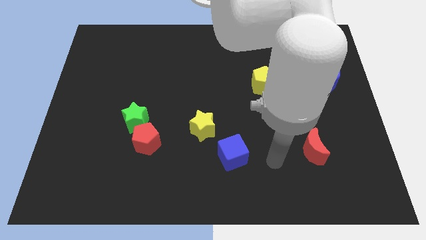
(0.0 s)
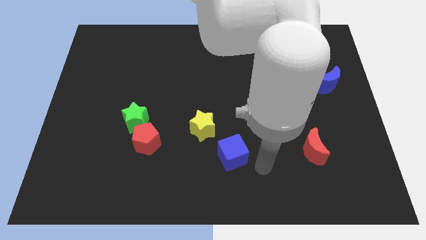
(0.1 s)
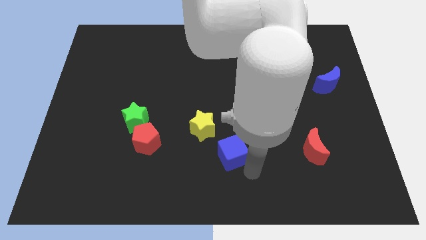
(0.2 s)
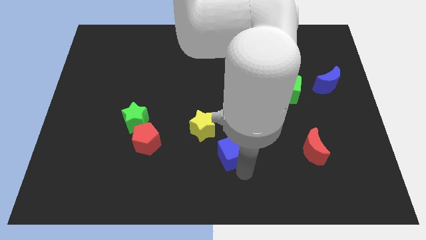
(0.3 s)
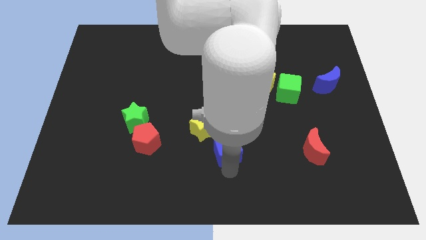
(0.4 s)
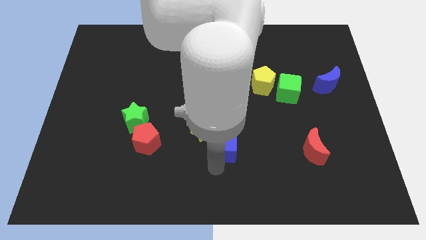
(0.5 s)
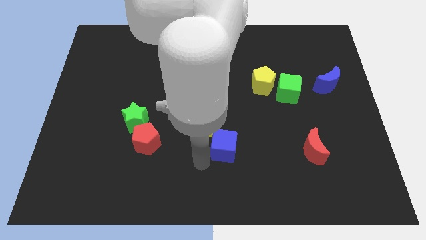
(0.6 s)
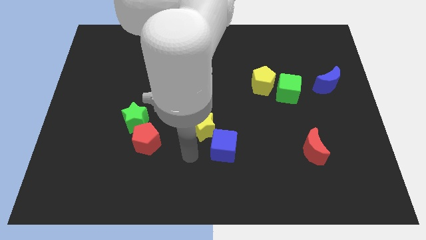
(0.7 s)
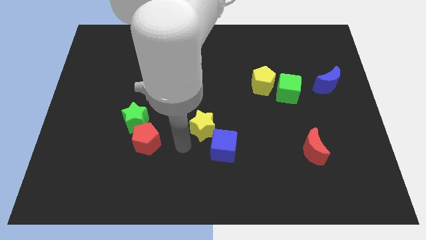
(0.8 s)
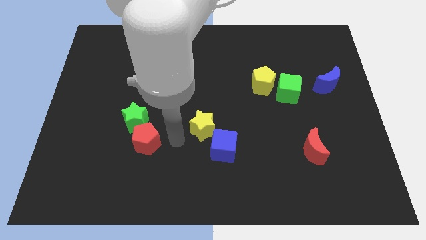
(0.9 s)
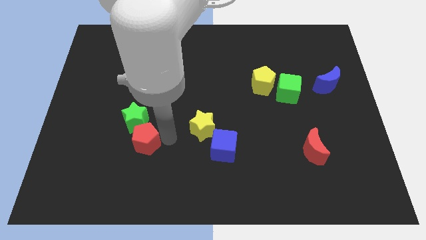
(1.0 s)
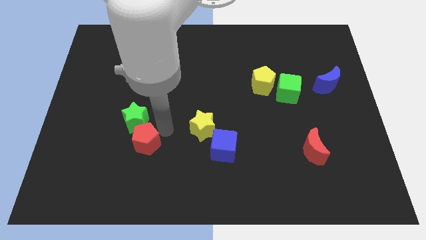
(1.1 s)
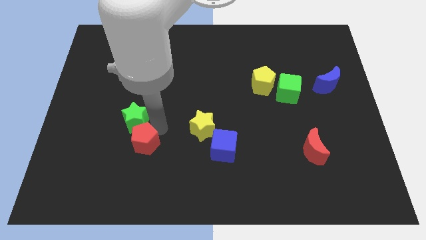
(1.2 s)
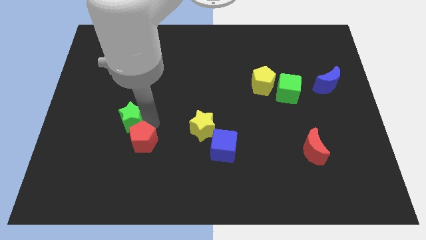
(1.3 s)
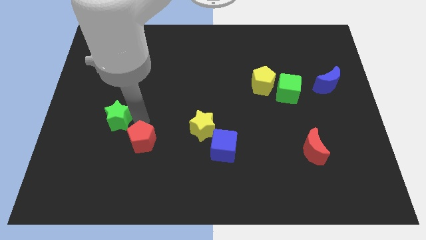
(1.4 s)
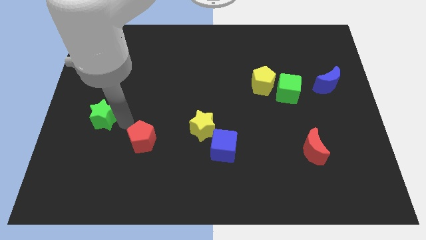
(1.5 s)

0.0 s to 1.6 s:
move the red pentagon away from the green star

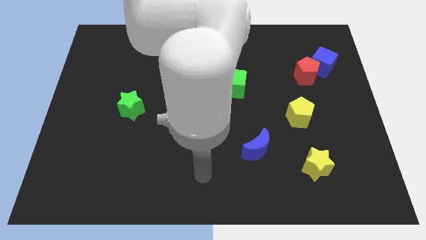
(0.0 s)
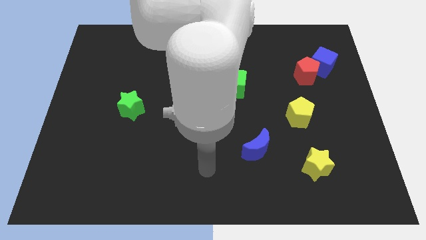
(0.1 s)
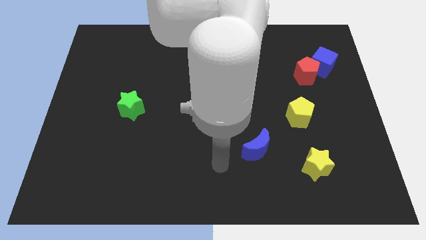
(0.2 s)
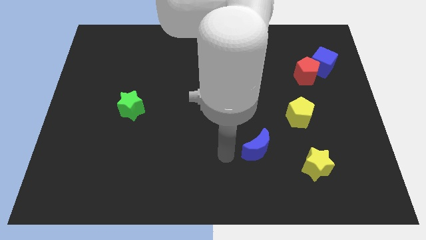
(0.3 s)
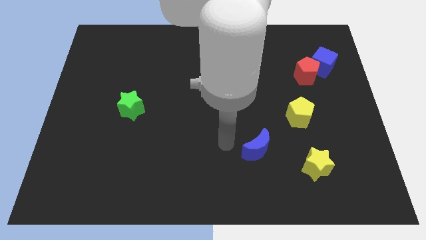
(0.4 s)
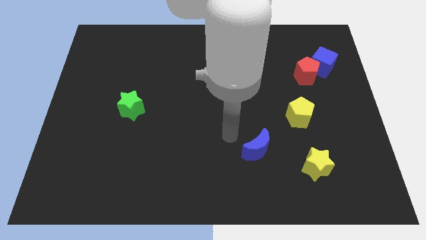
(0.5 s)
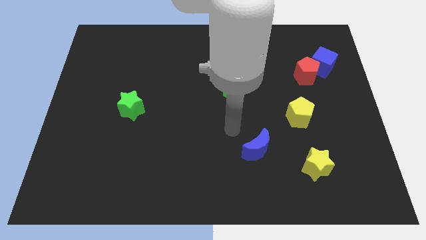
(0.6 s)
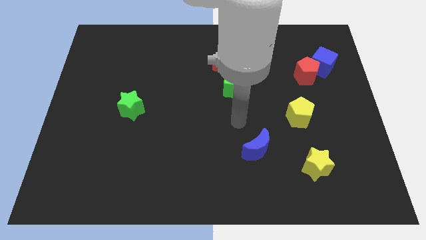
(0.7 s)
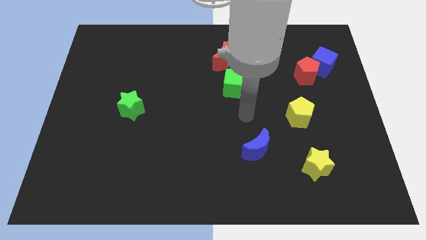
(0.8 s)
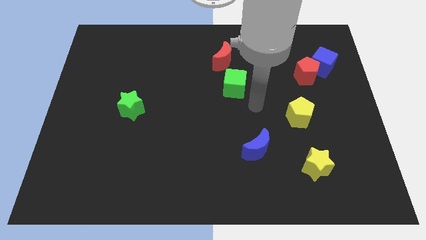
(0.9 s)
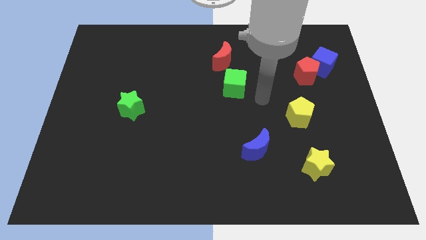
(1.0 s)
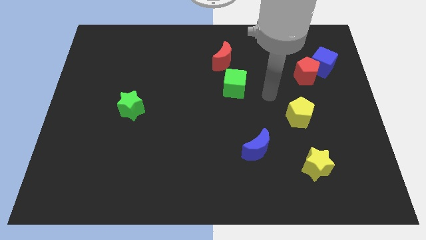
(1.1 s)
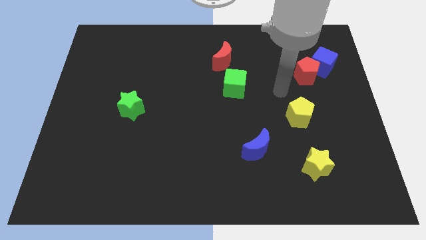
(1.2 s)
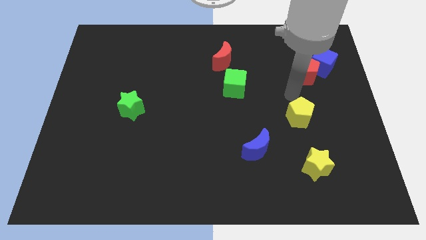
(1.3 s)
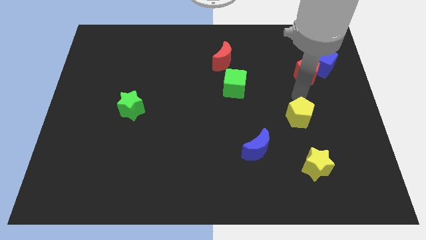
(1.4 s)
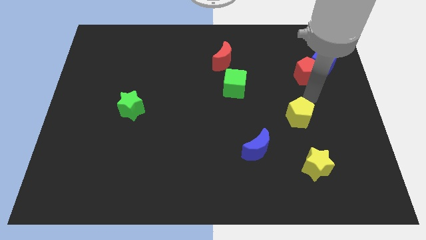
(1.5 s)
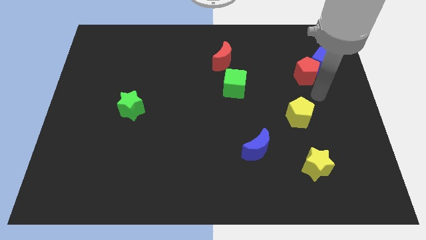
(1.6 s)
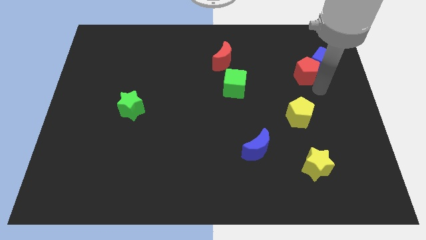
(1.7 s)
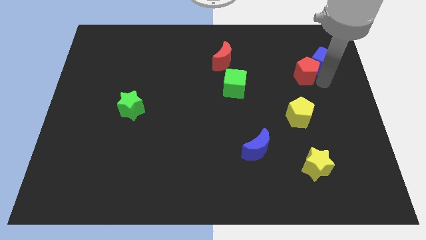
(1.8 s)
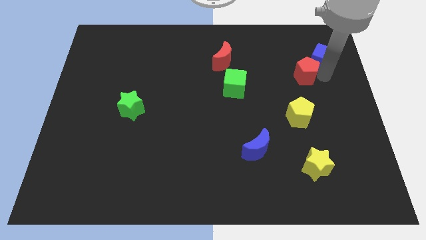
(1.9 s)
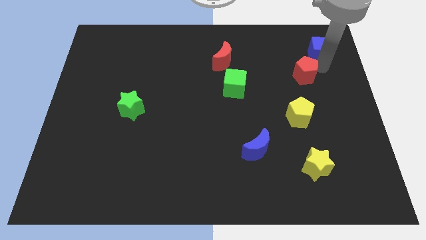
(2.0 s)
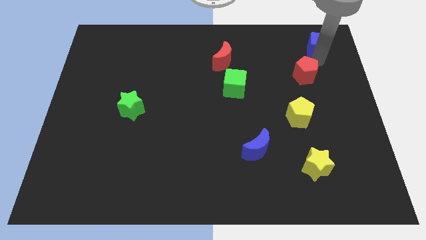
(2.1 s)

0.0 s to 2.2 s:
pull the red pentagon apart from the blue cube

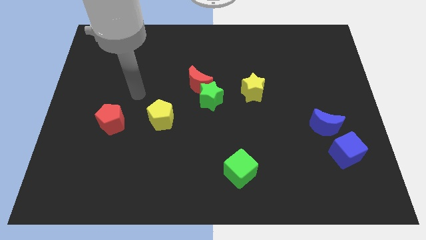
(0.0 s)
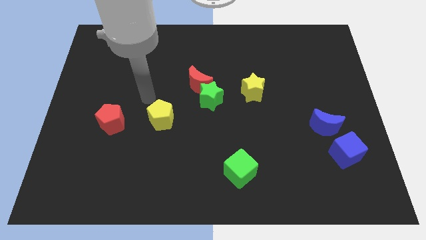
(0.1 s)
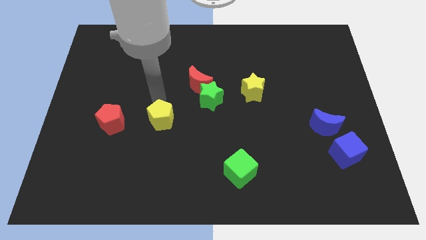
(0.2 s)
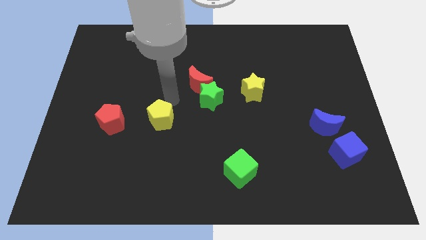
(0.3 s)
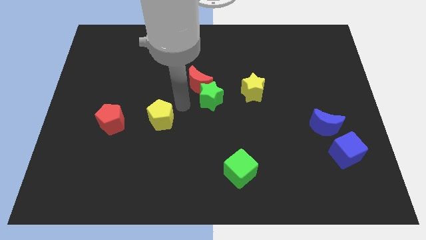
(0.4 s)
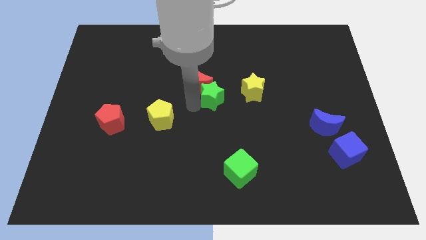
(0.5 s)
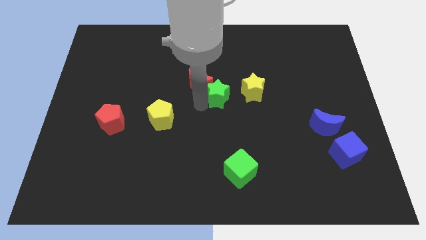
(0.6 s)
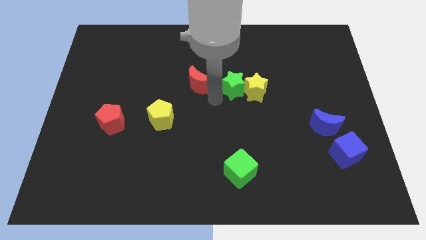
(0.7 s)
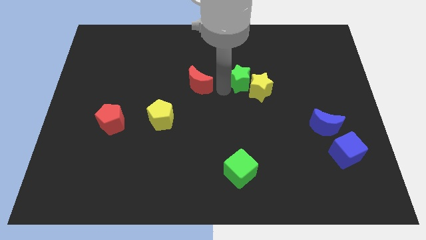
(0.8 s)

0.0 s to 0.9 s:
move the red moon away from the green star

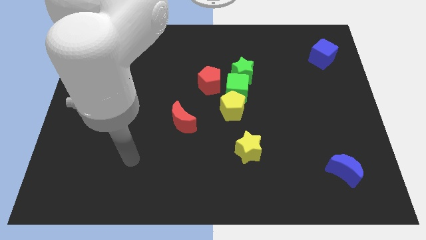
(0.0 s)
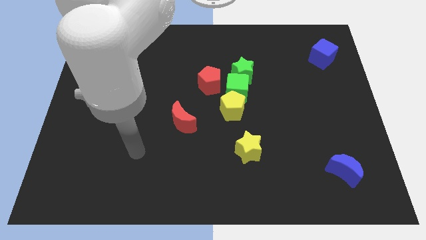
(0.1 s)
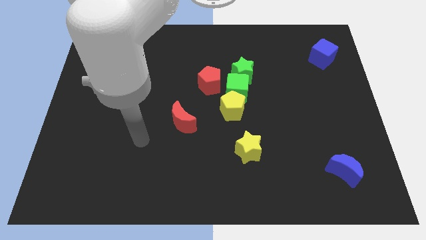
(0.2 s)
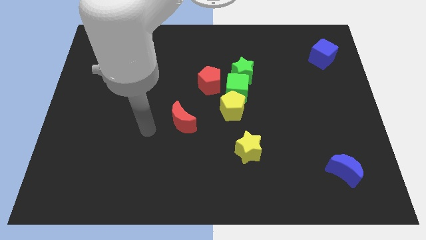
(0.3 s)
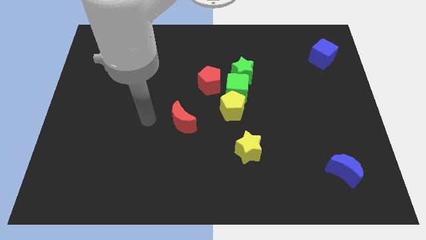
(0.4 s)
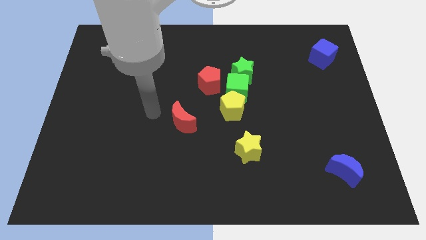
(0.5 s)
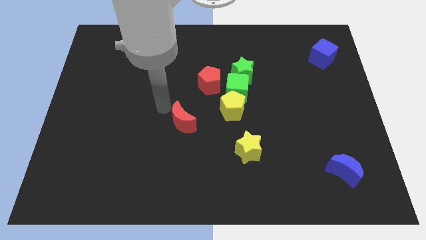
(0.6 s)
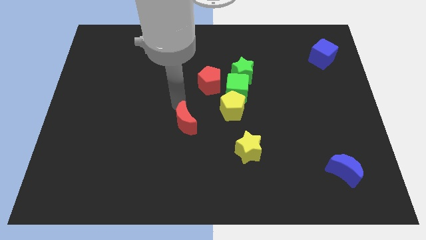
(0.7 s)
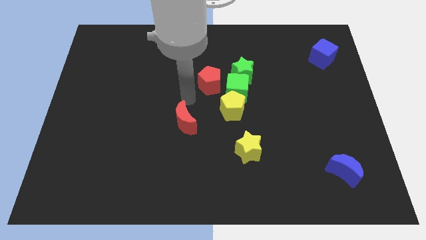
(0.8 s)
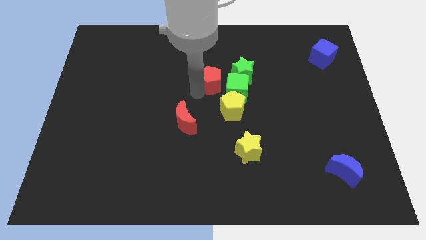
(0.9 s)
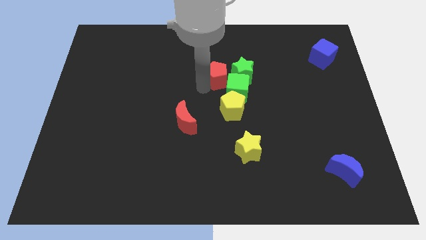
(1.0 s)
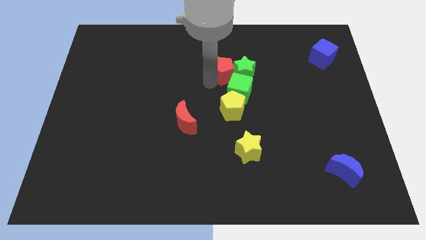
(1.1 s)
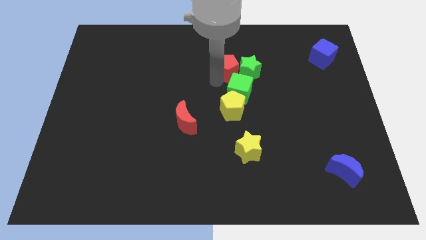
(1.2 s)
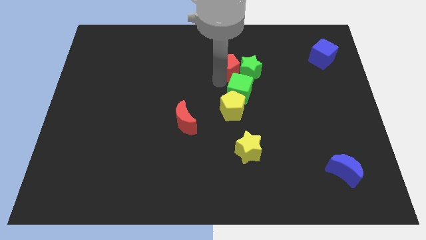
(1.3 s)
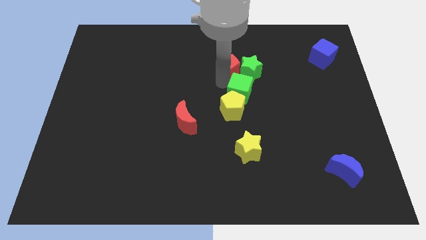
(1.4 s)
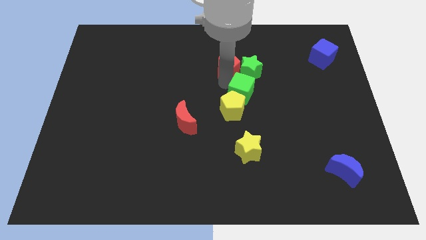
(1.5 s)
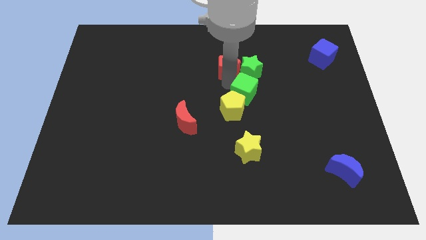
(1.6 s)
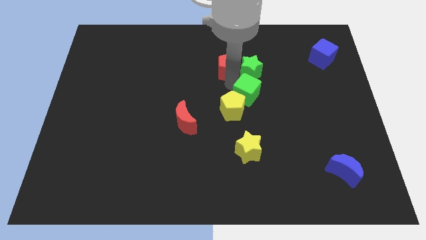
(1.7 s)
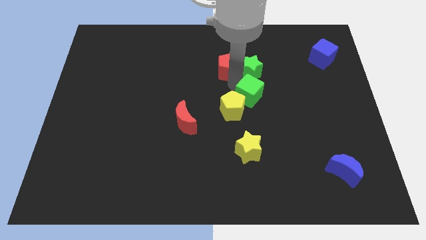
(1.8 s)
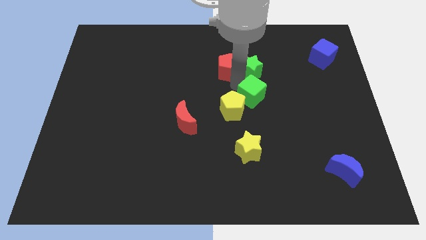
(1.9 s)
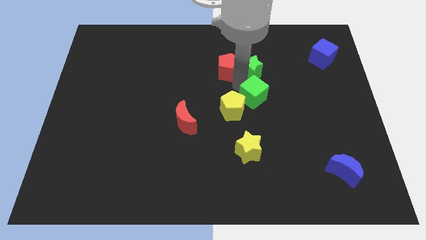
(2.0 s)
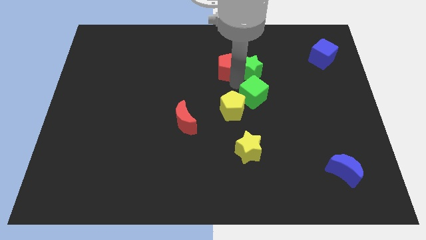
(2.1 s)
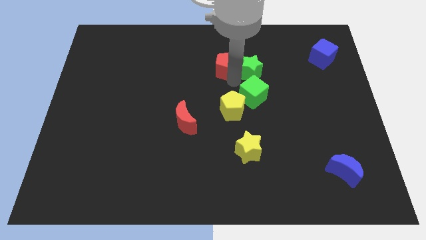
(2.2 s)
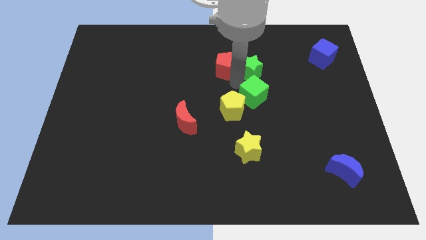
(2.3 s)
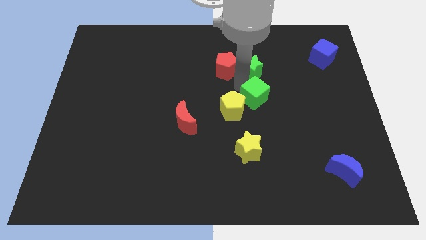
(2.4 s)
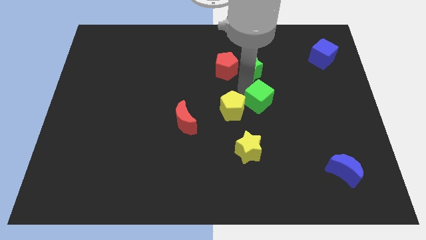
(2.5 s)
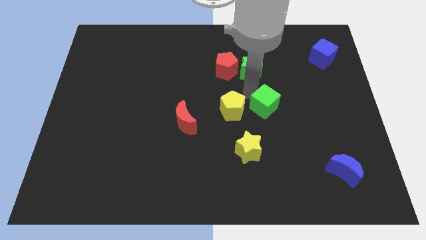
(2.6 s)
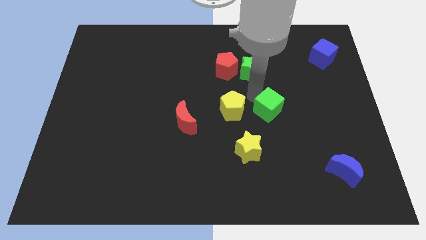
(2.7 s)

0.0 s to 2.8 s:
separate the green cube from the green star, yellow pentagon, and red pentagon

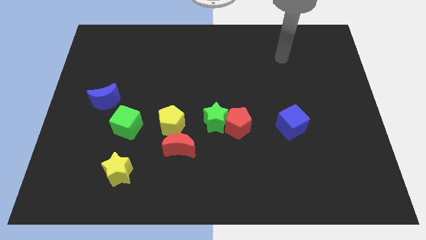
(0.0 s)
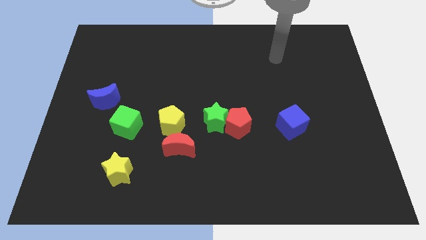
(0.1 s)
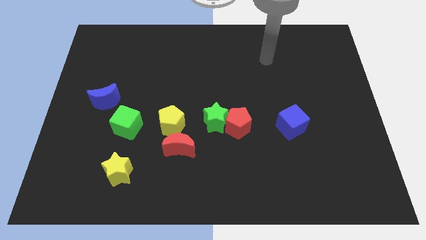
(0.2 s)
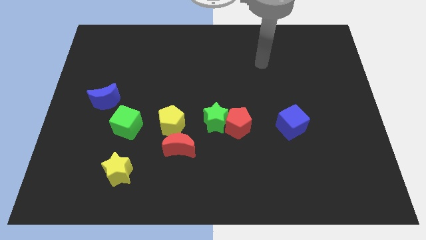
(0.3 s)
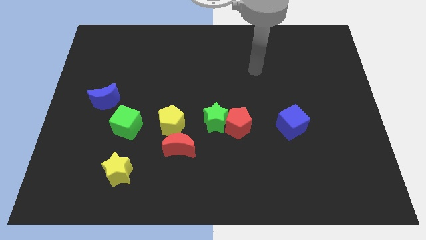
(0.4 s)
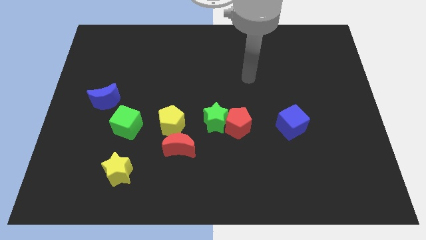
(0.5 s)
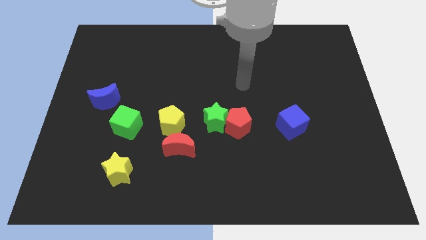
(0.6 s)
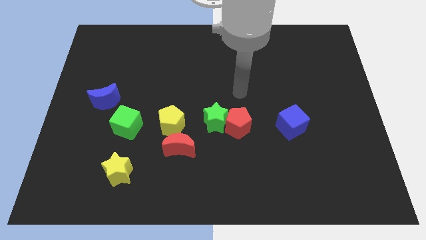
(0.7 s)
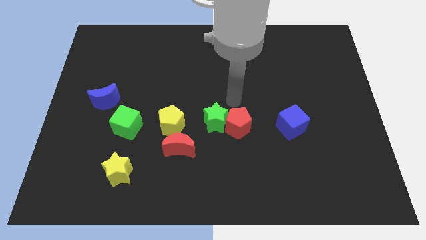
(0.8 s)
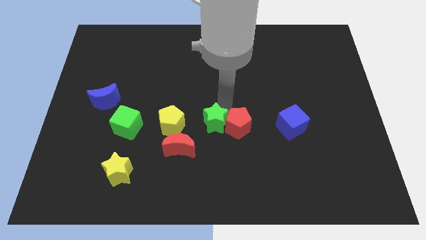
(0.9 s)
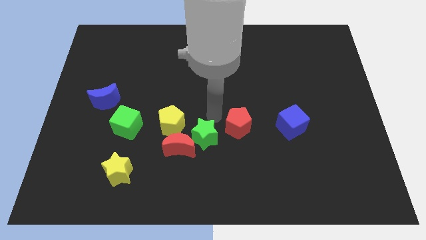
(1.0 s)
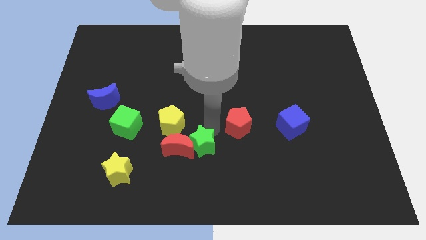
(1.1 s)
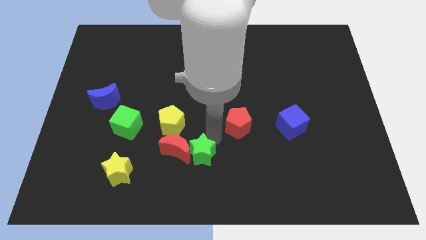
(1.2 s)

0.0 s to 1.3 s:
pull the red pentagon apart from the green star

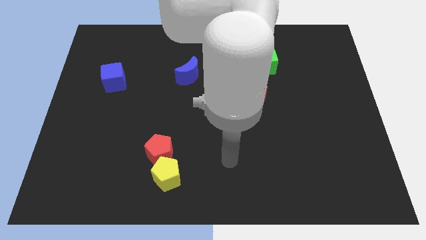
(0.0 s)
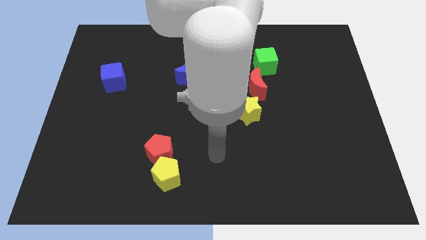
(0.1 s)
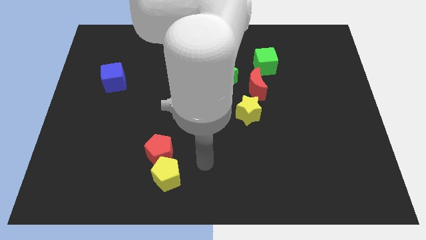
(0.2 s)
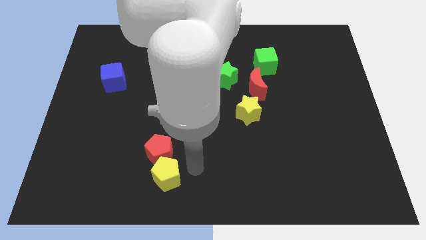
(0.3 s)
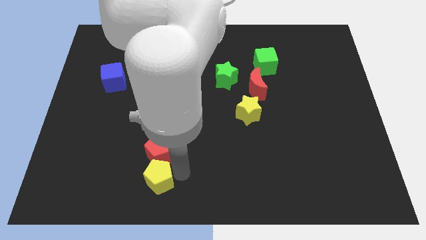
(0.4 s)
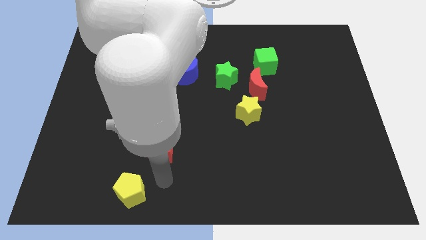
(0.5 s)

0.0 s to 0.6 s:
move the red pentagon away from the yellow pentagon
